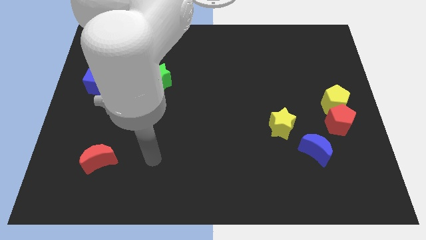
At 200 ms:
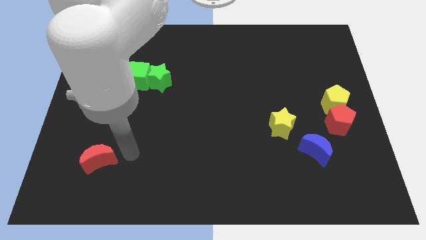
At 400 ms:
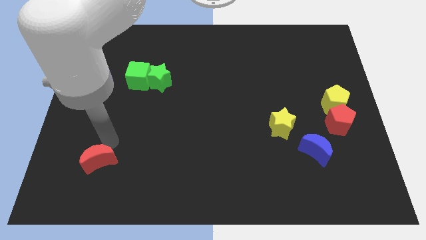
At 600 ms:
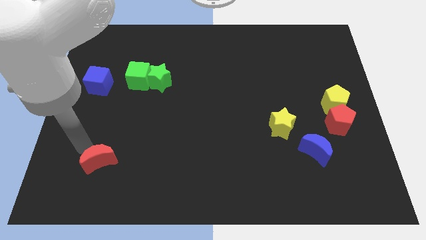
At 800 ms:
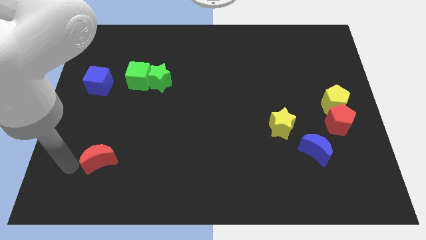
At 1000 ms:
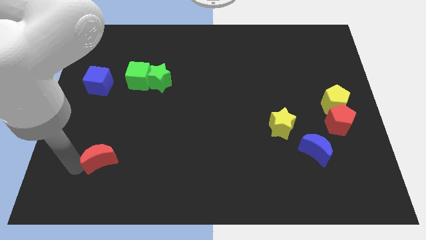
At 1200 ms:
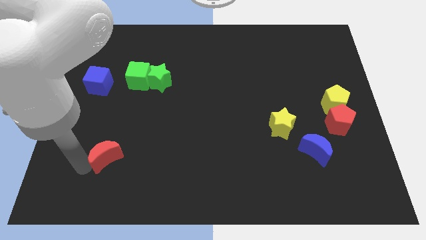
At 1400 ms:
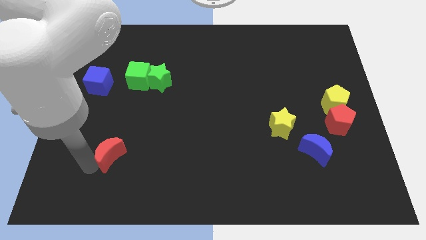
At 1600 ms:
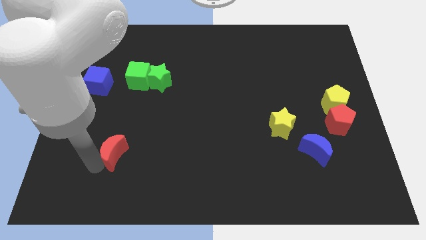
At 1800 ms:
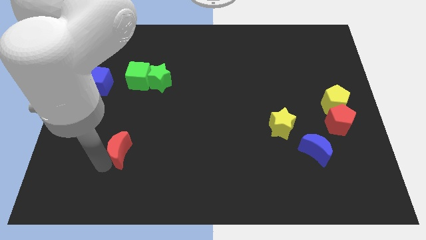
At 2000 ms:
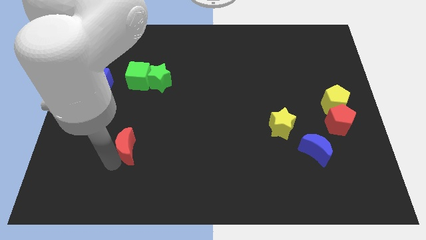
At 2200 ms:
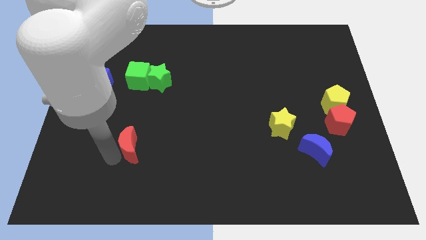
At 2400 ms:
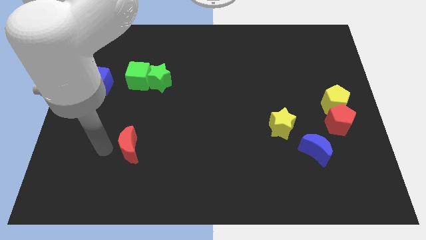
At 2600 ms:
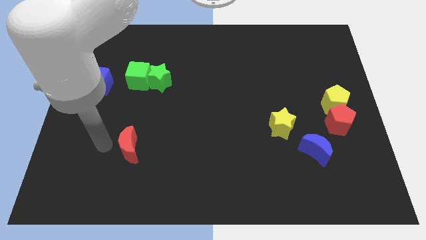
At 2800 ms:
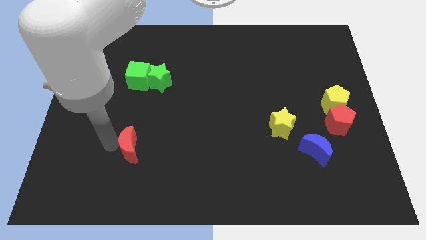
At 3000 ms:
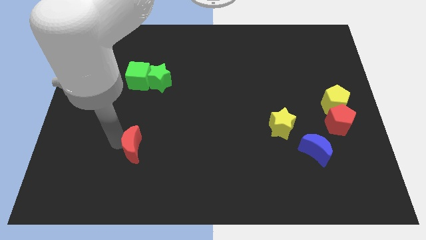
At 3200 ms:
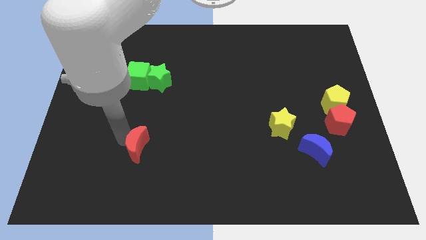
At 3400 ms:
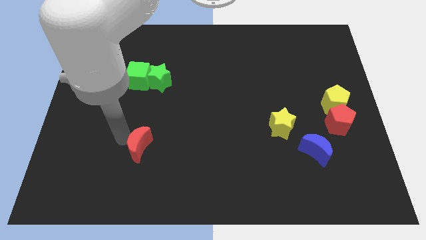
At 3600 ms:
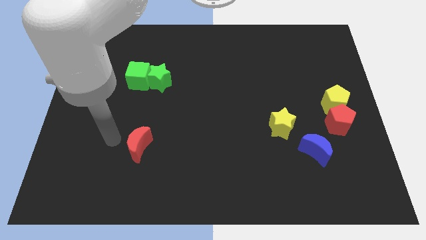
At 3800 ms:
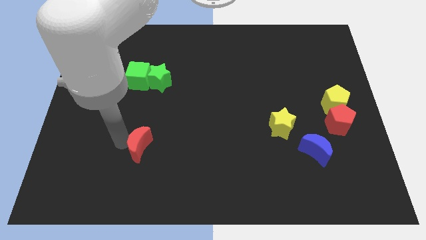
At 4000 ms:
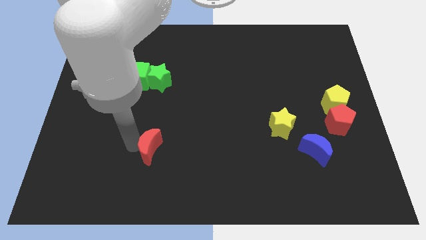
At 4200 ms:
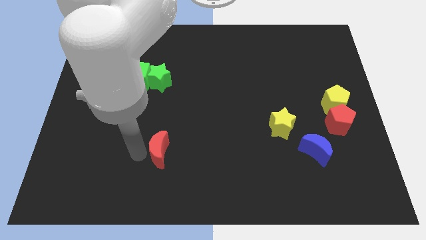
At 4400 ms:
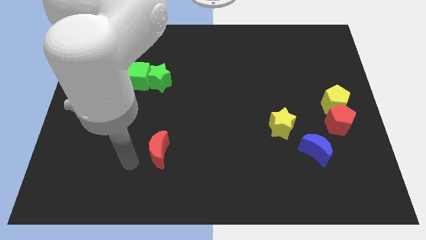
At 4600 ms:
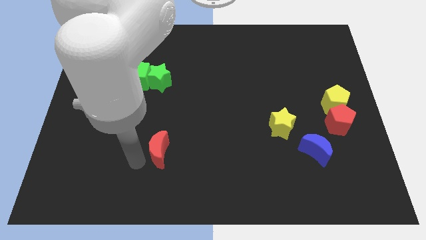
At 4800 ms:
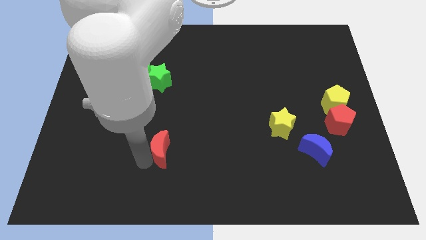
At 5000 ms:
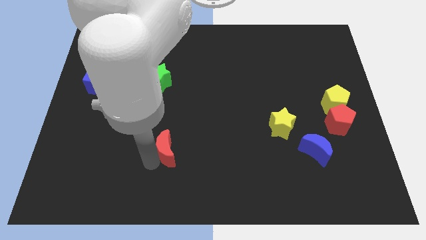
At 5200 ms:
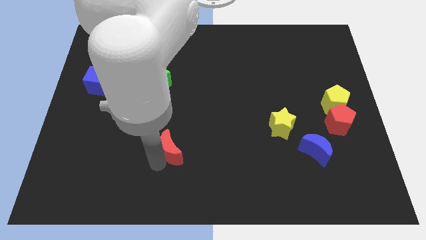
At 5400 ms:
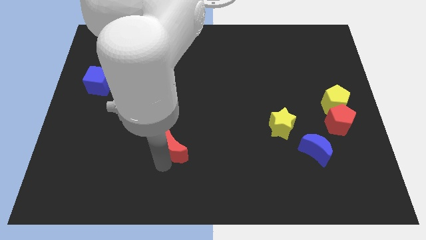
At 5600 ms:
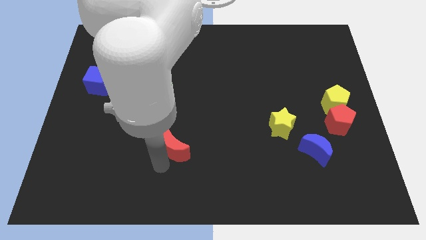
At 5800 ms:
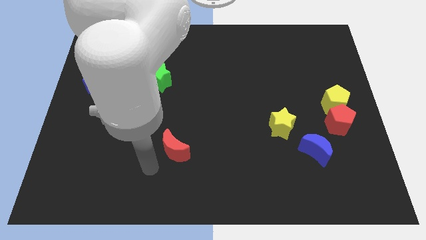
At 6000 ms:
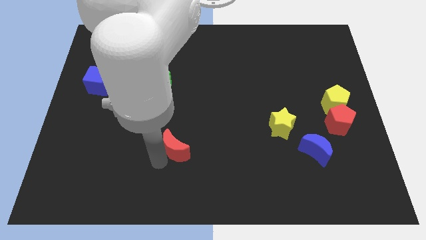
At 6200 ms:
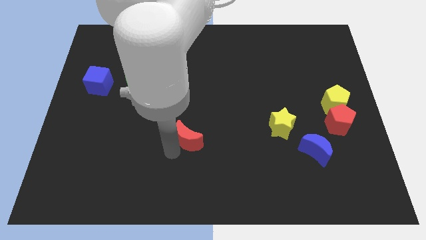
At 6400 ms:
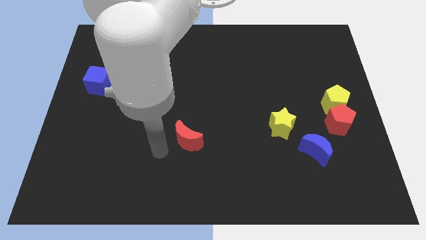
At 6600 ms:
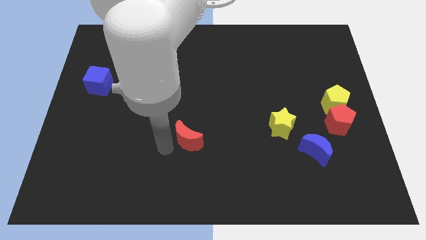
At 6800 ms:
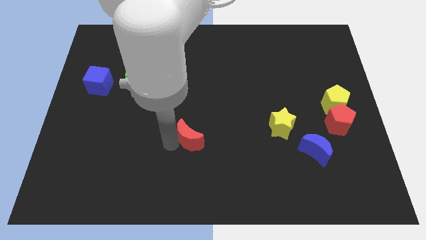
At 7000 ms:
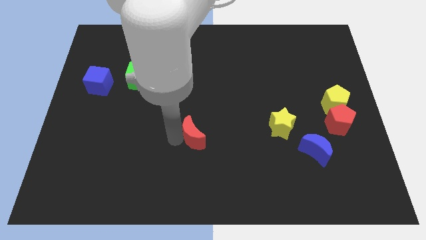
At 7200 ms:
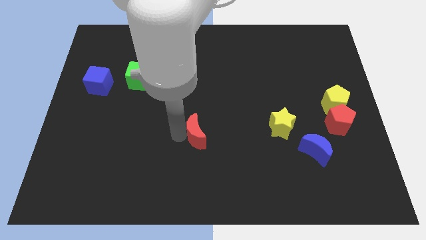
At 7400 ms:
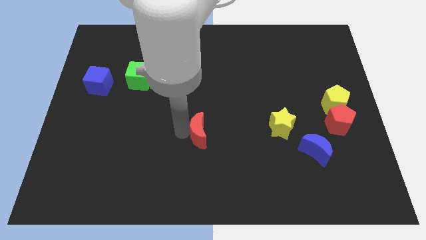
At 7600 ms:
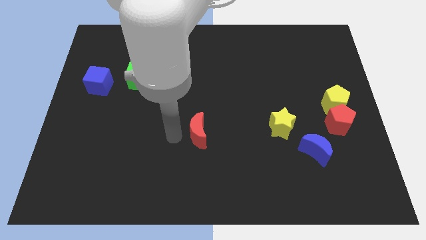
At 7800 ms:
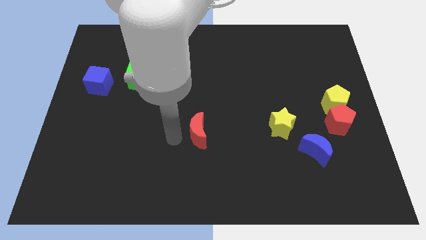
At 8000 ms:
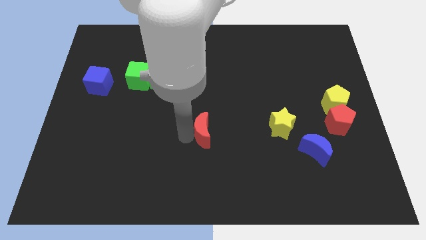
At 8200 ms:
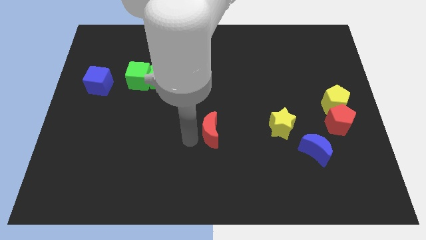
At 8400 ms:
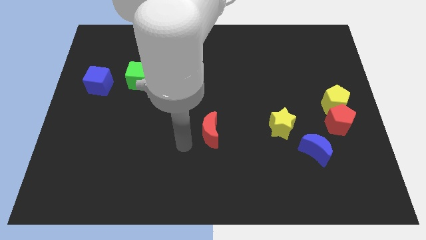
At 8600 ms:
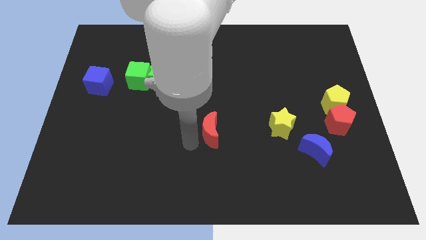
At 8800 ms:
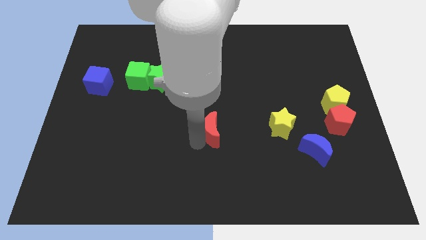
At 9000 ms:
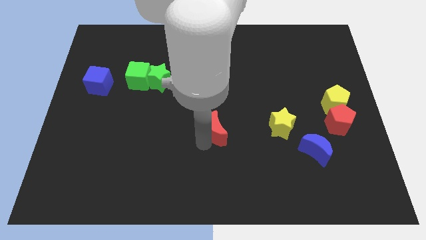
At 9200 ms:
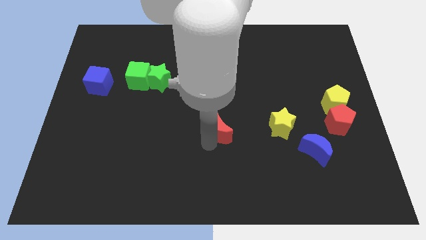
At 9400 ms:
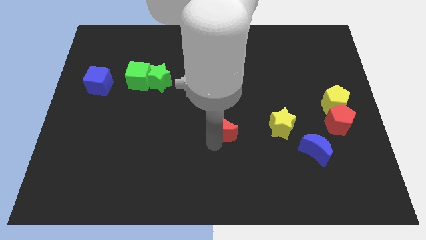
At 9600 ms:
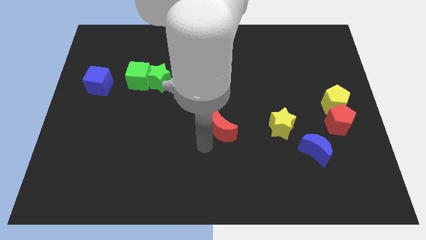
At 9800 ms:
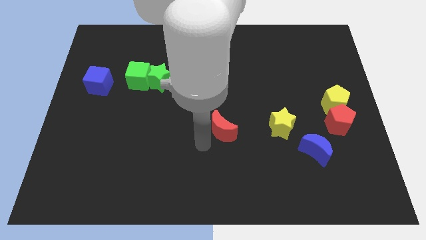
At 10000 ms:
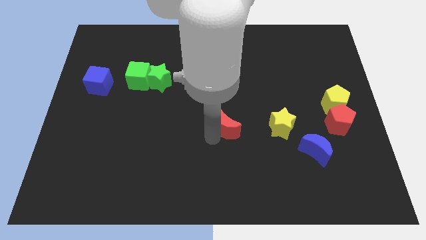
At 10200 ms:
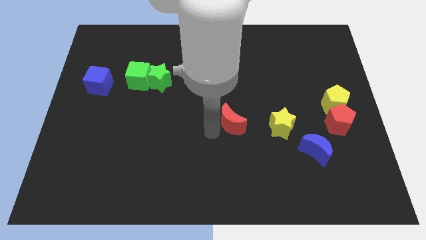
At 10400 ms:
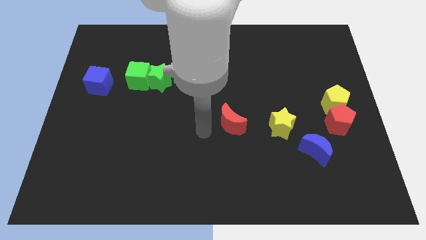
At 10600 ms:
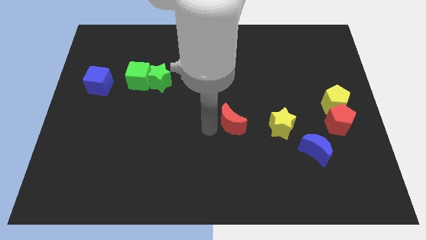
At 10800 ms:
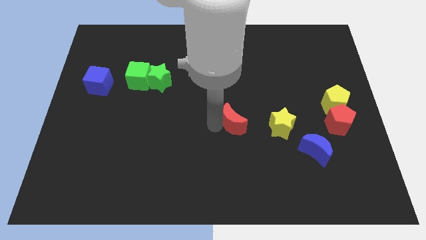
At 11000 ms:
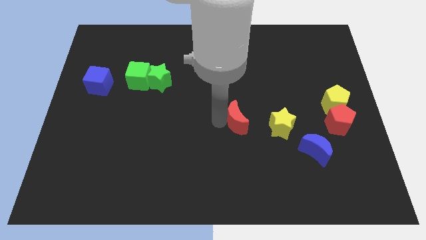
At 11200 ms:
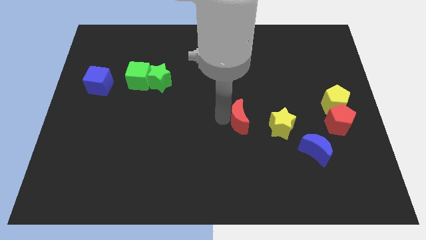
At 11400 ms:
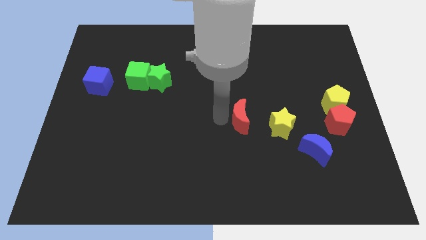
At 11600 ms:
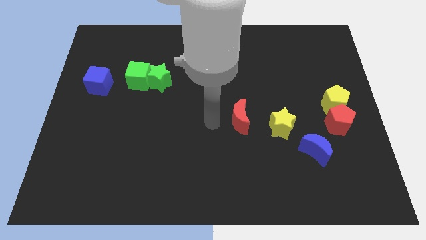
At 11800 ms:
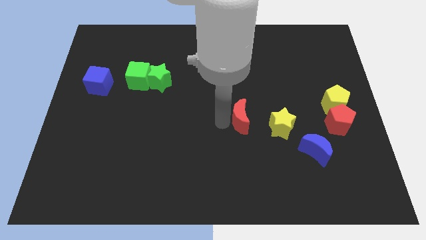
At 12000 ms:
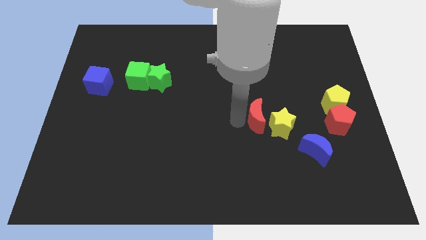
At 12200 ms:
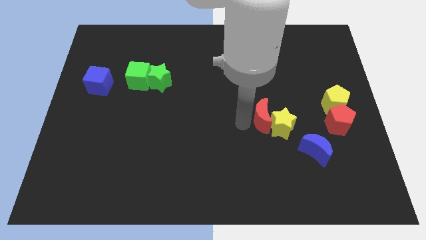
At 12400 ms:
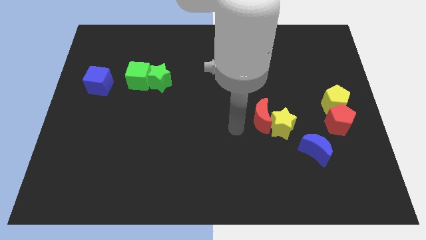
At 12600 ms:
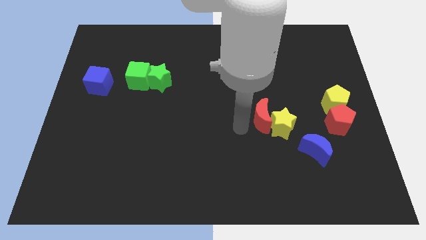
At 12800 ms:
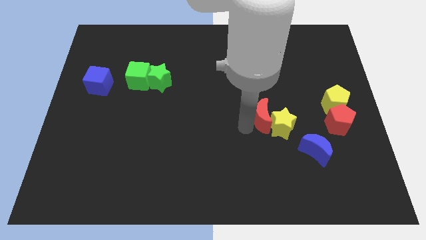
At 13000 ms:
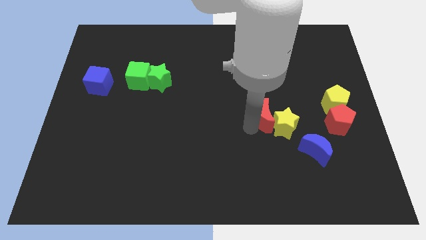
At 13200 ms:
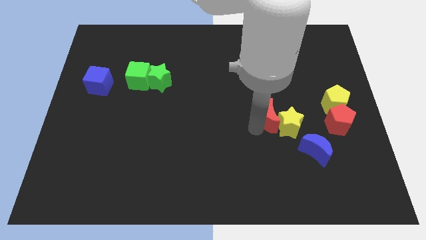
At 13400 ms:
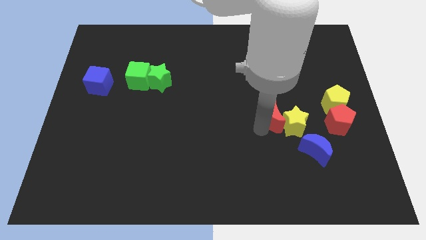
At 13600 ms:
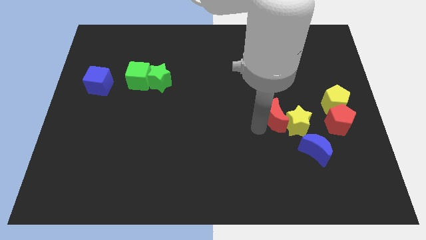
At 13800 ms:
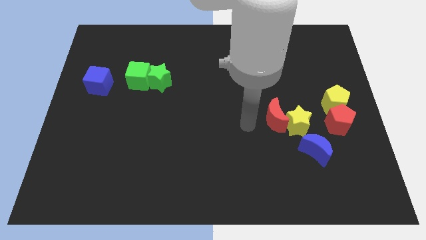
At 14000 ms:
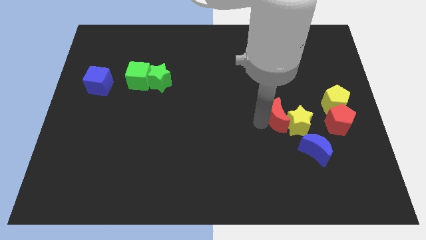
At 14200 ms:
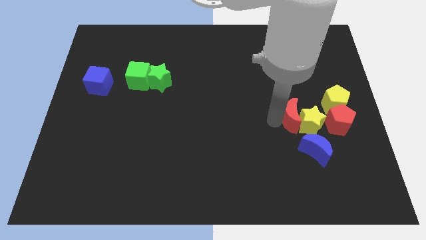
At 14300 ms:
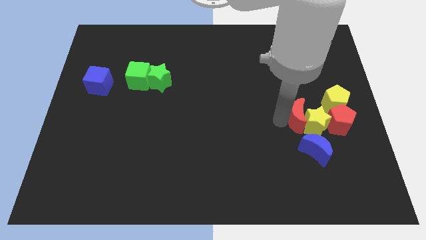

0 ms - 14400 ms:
push the red moon to the bottom left side of the yellow pentagon
